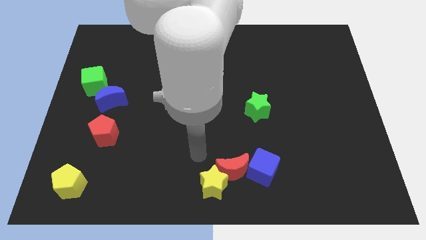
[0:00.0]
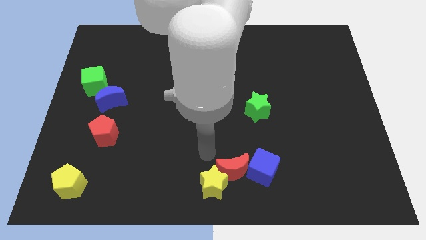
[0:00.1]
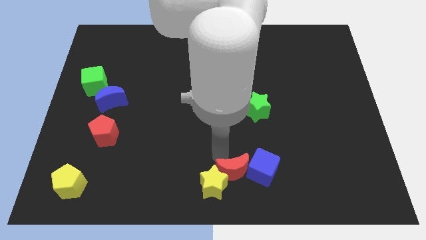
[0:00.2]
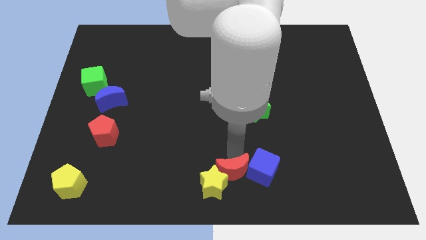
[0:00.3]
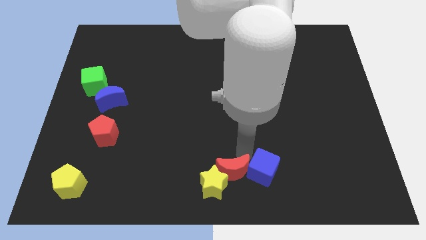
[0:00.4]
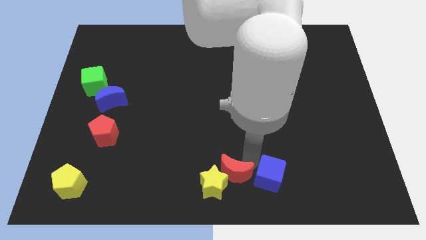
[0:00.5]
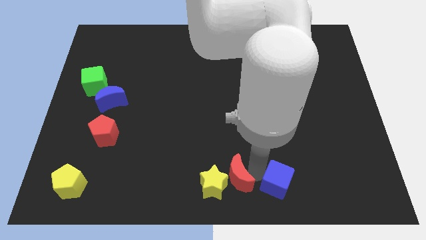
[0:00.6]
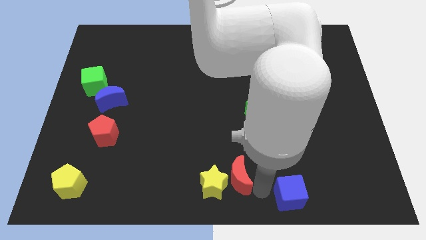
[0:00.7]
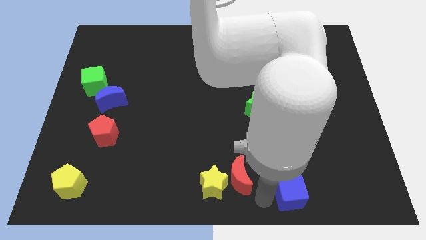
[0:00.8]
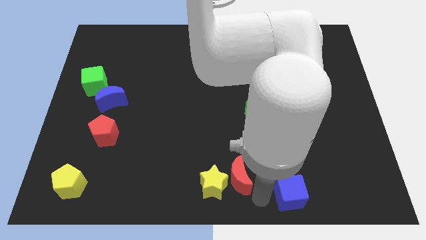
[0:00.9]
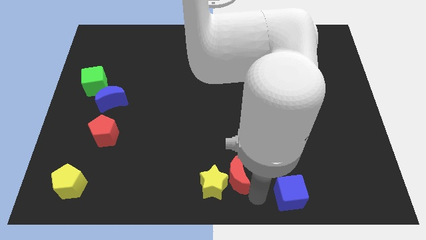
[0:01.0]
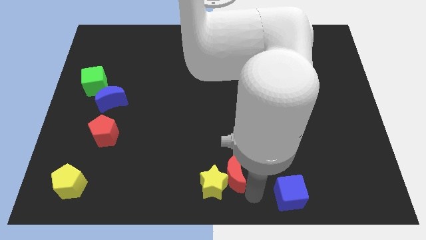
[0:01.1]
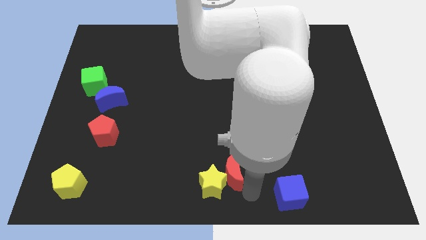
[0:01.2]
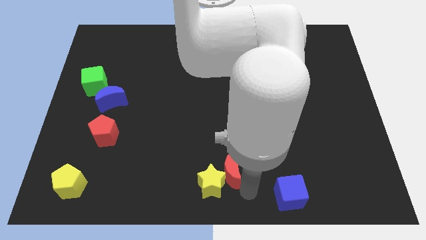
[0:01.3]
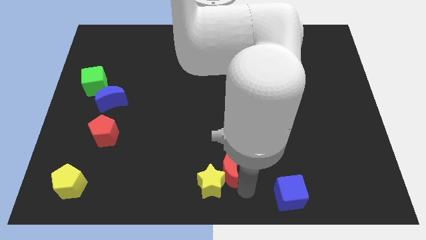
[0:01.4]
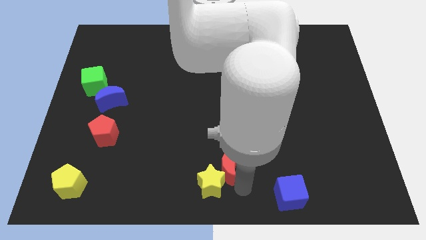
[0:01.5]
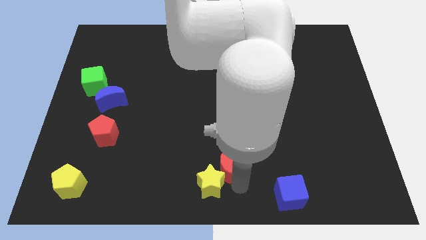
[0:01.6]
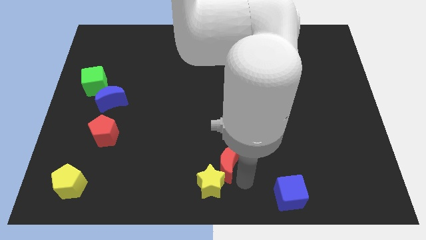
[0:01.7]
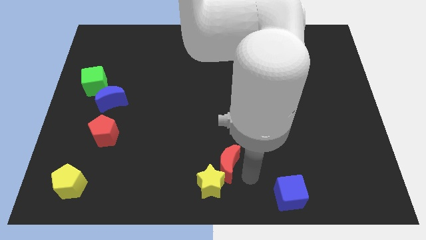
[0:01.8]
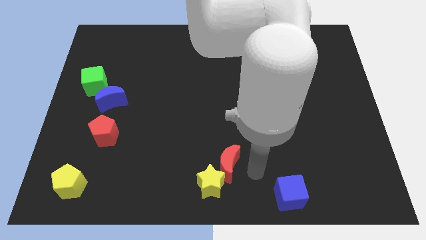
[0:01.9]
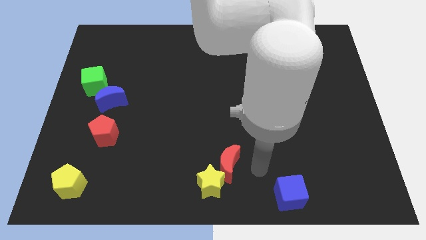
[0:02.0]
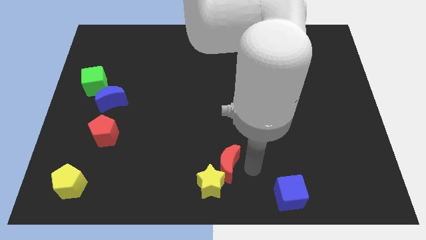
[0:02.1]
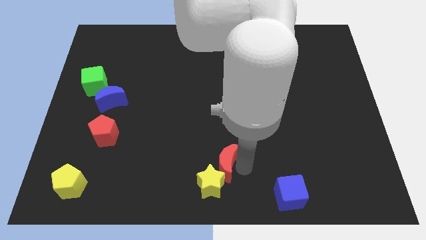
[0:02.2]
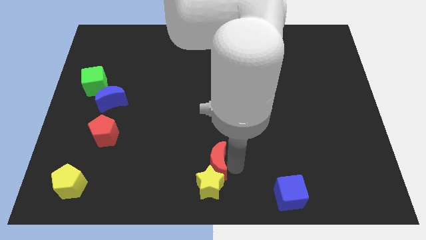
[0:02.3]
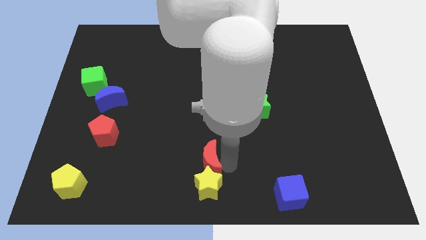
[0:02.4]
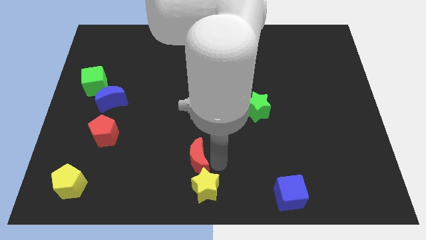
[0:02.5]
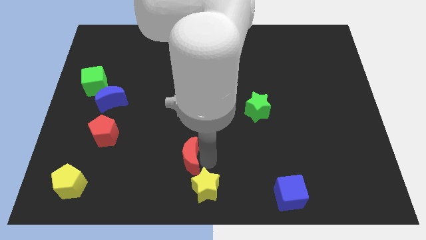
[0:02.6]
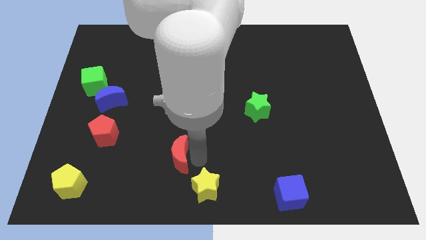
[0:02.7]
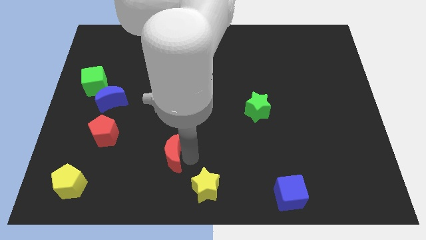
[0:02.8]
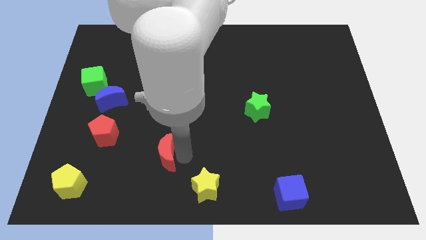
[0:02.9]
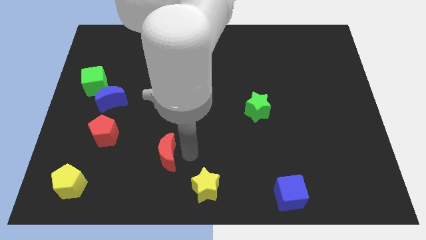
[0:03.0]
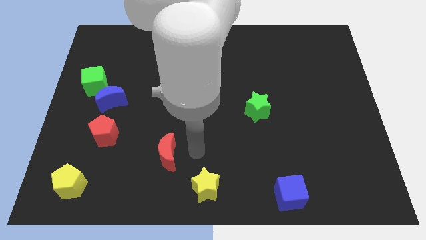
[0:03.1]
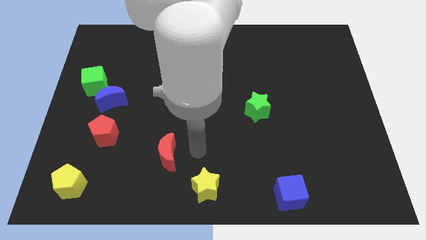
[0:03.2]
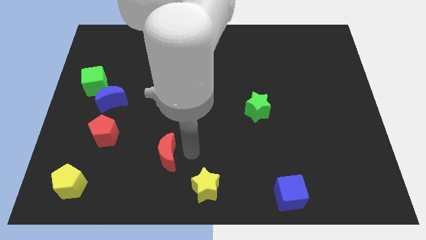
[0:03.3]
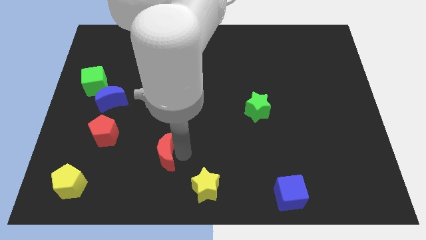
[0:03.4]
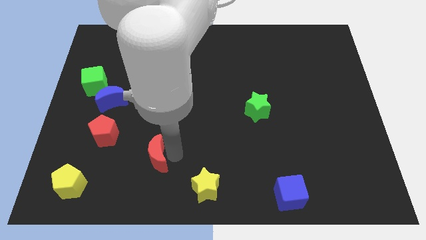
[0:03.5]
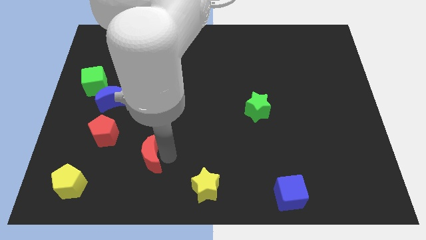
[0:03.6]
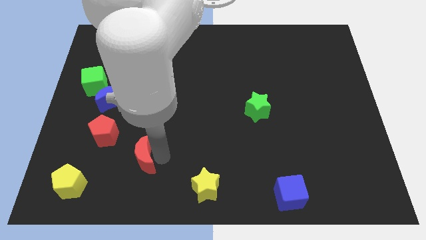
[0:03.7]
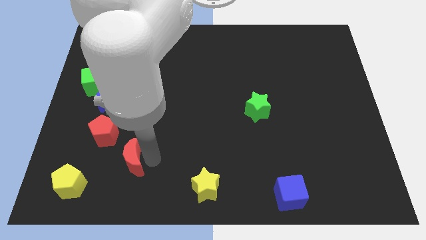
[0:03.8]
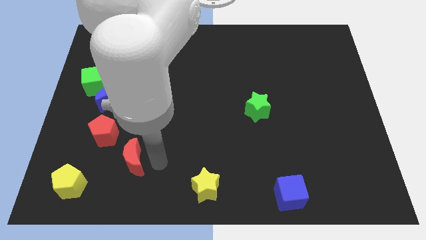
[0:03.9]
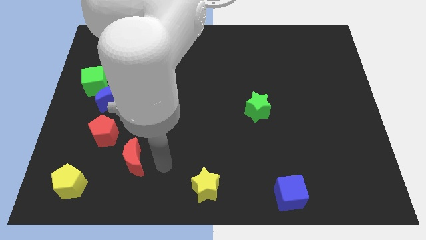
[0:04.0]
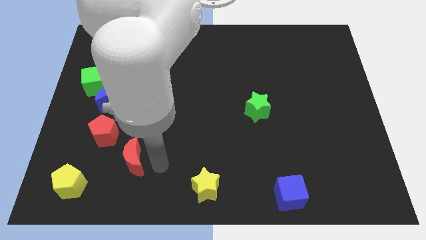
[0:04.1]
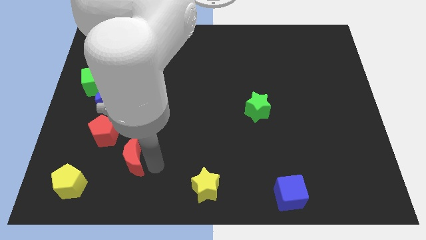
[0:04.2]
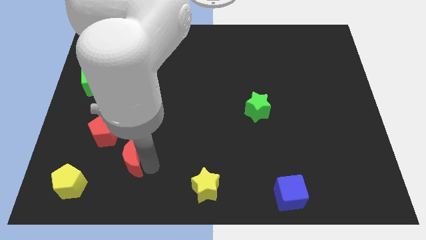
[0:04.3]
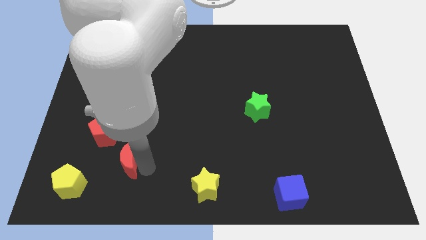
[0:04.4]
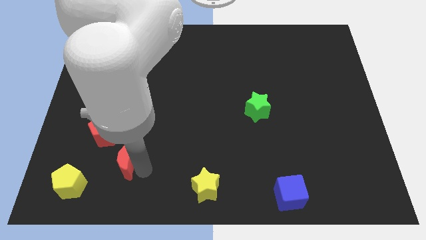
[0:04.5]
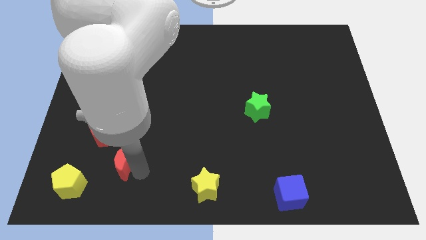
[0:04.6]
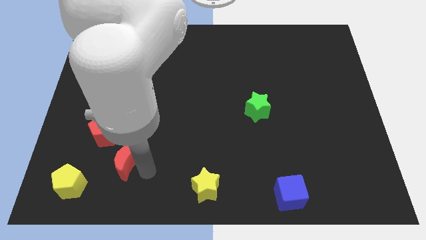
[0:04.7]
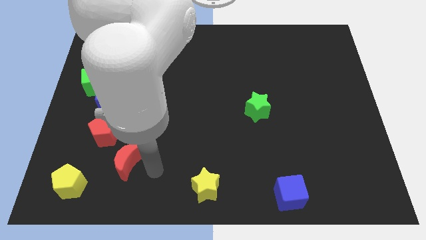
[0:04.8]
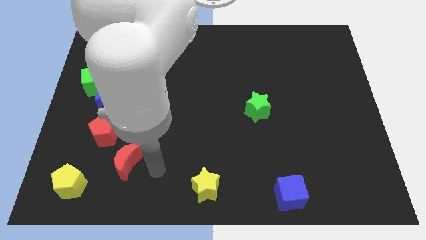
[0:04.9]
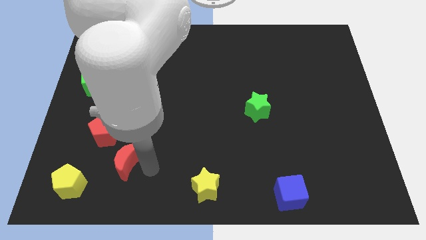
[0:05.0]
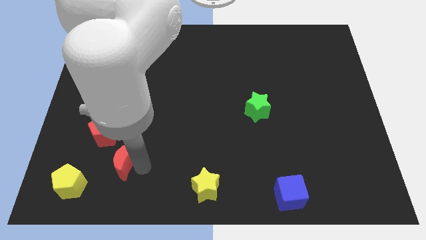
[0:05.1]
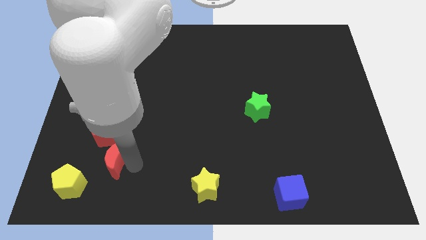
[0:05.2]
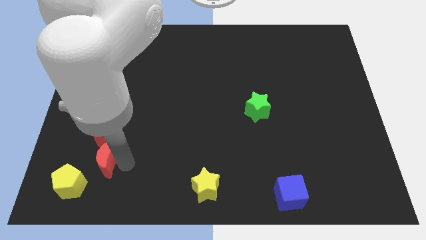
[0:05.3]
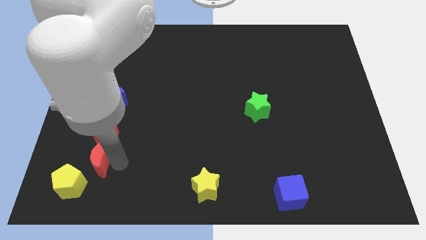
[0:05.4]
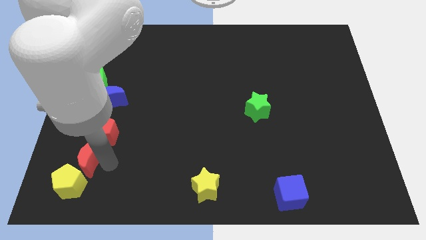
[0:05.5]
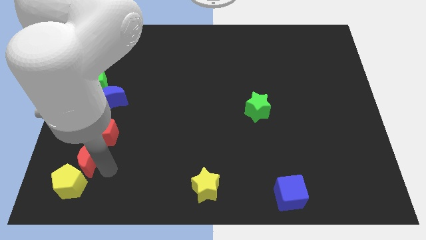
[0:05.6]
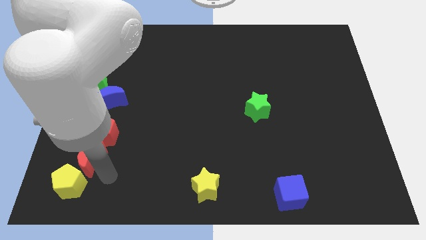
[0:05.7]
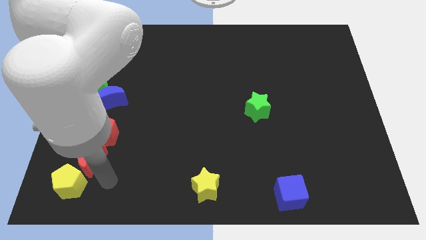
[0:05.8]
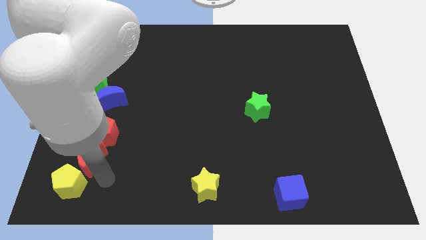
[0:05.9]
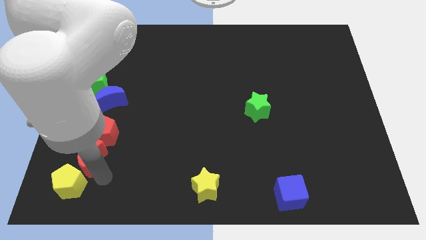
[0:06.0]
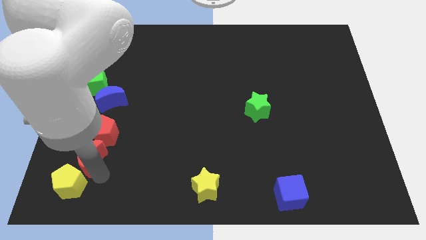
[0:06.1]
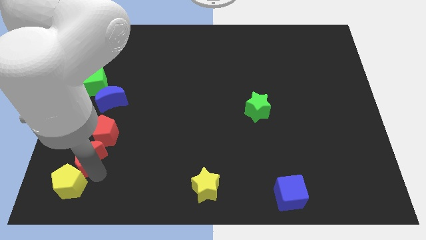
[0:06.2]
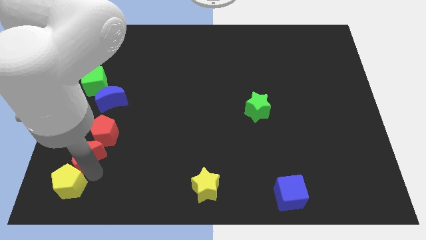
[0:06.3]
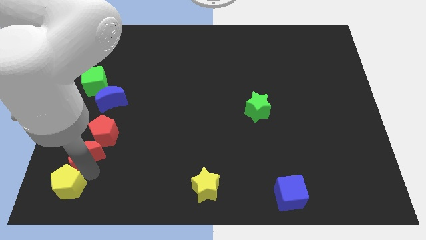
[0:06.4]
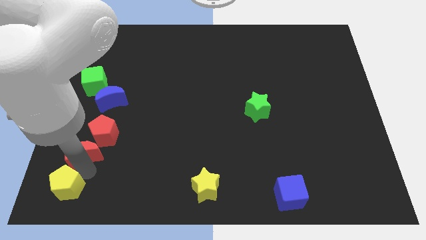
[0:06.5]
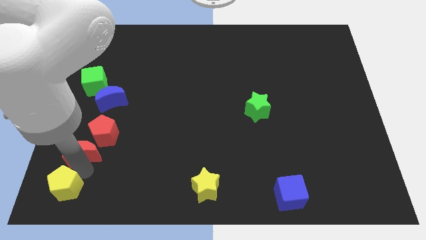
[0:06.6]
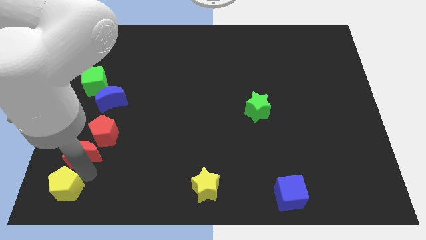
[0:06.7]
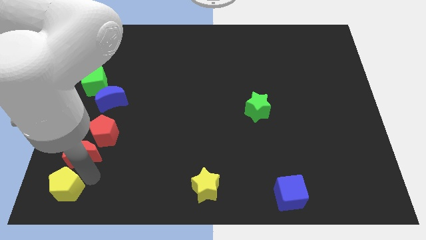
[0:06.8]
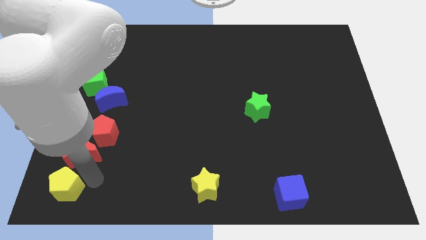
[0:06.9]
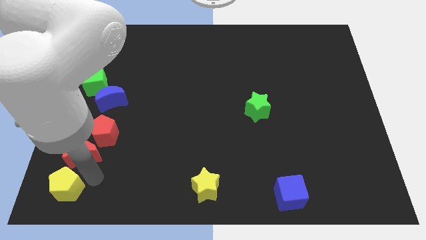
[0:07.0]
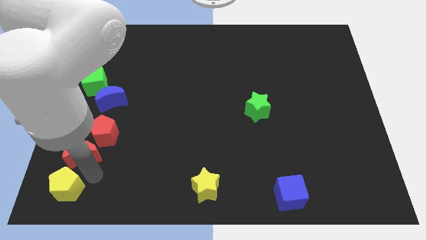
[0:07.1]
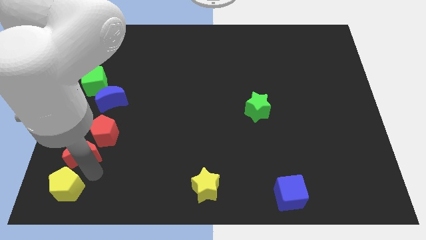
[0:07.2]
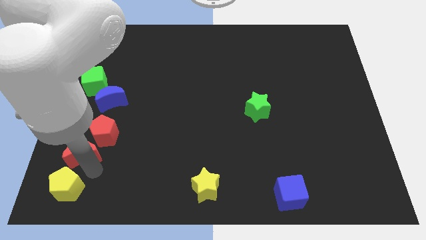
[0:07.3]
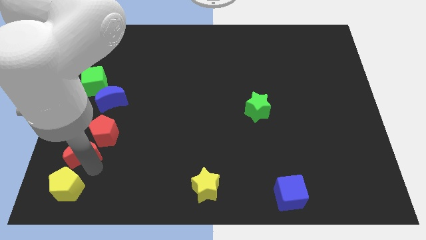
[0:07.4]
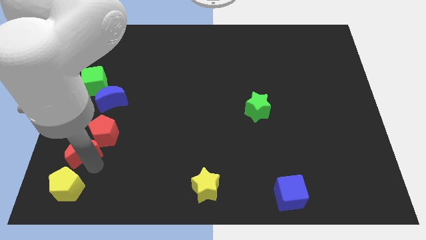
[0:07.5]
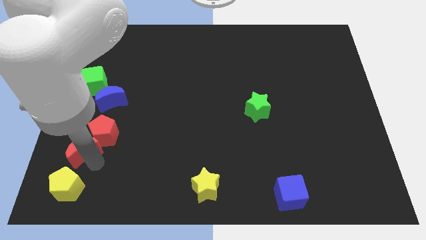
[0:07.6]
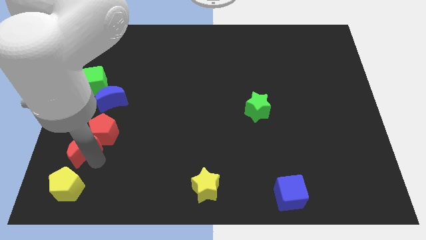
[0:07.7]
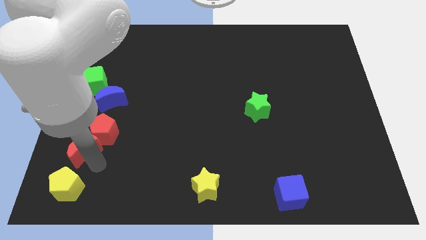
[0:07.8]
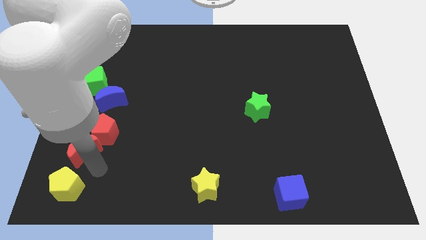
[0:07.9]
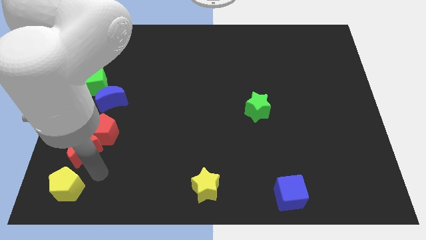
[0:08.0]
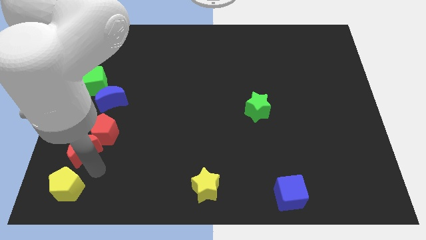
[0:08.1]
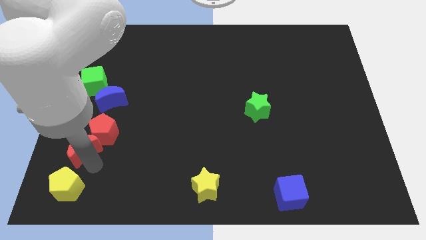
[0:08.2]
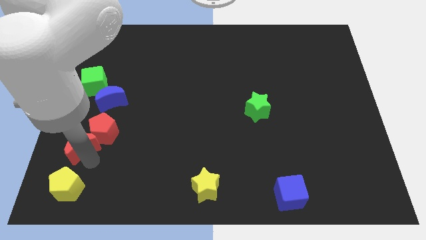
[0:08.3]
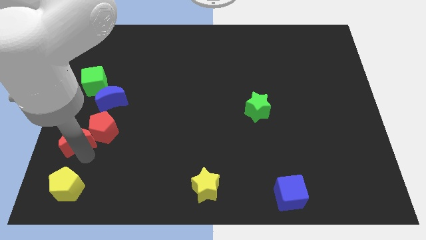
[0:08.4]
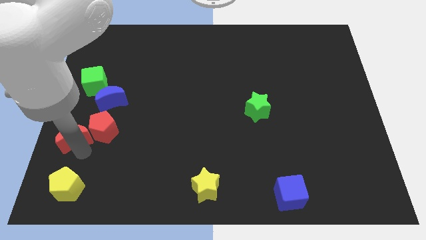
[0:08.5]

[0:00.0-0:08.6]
slide the red moon to the left side of the board
